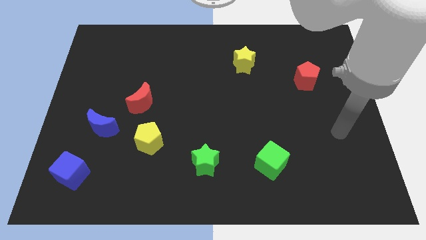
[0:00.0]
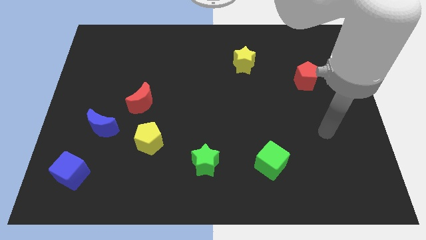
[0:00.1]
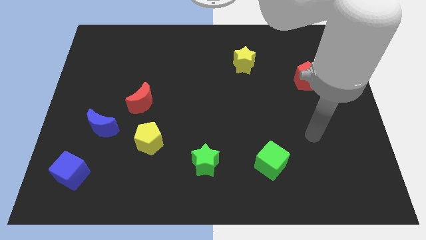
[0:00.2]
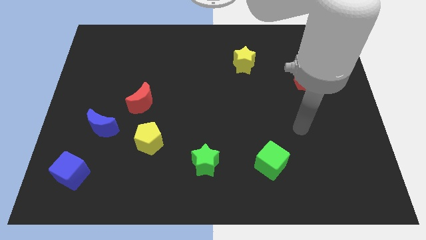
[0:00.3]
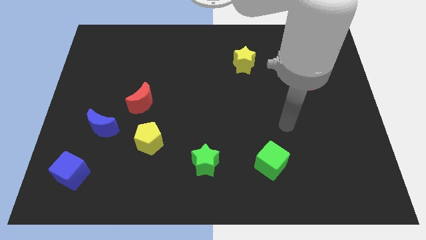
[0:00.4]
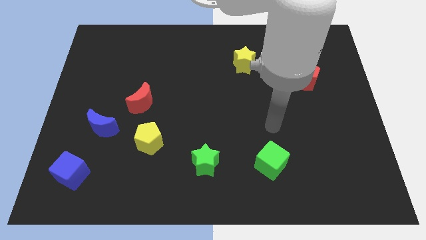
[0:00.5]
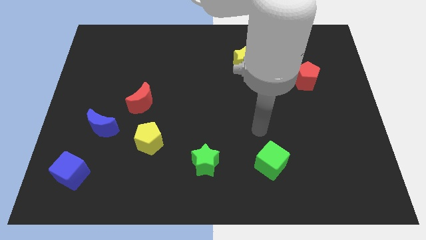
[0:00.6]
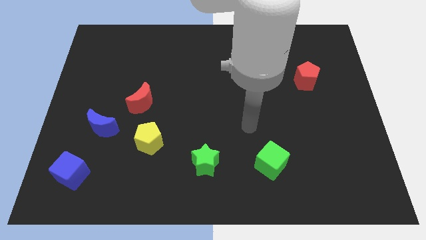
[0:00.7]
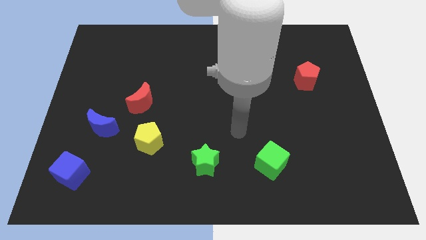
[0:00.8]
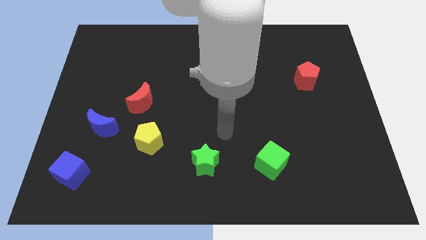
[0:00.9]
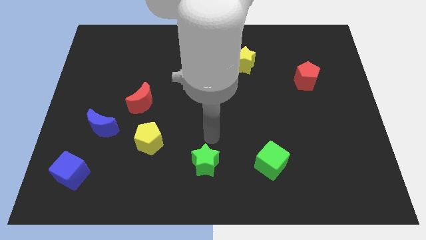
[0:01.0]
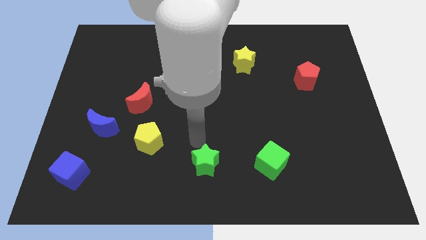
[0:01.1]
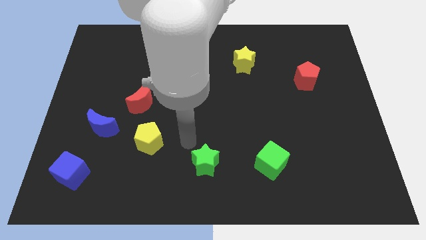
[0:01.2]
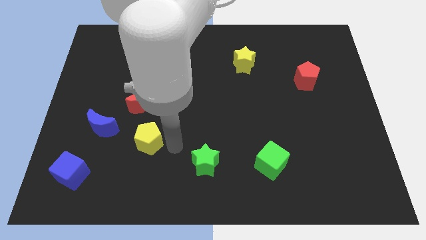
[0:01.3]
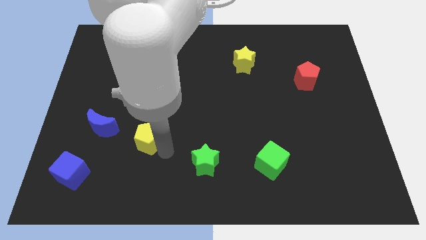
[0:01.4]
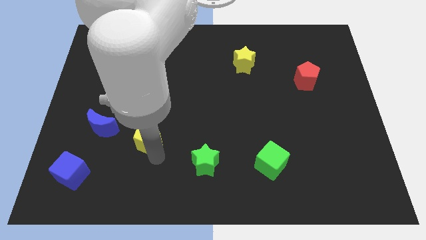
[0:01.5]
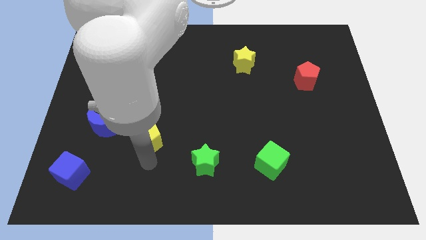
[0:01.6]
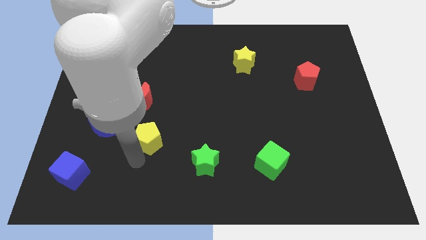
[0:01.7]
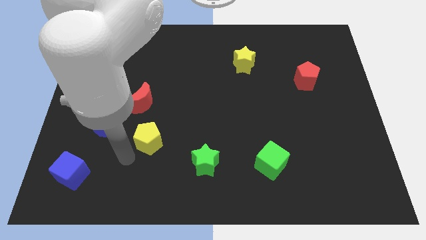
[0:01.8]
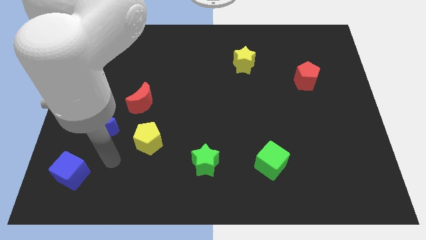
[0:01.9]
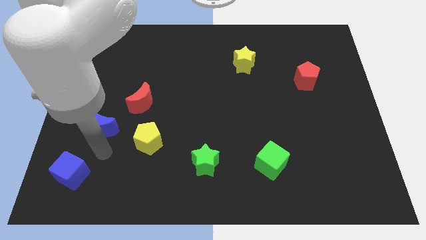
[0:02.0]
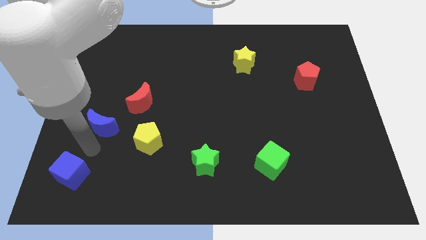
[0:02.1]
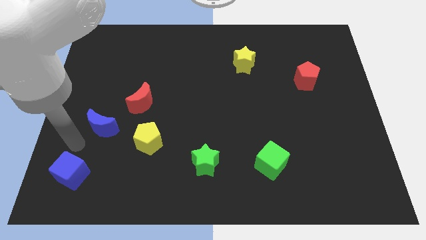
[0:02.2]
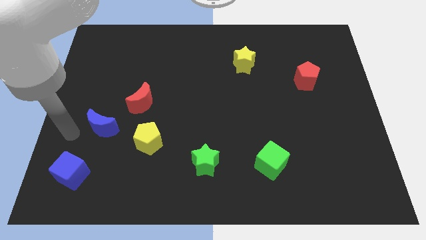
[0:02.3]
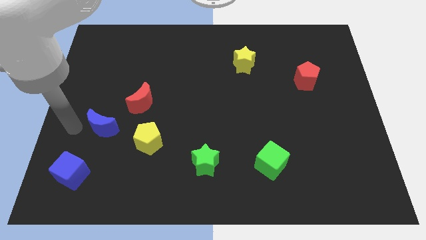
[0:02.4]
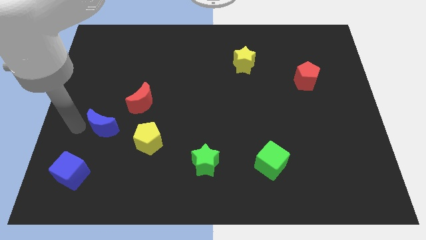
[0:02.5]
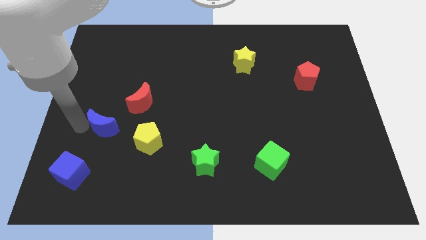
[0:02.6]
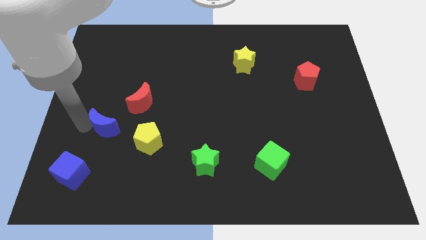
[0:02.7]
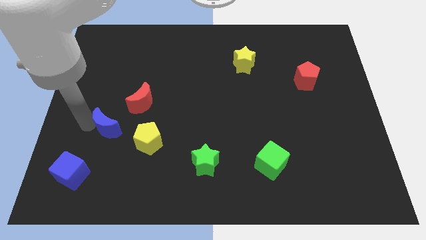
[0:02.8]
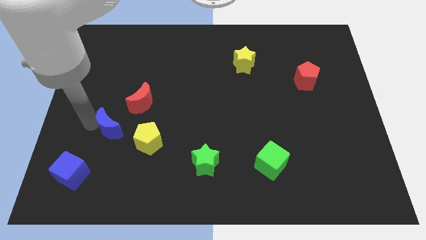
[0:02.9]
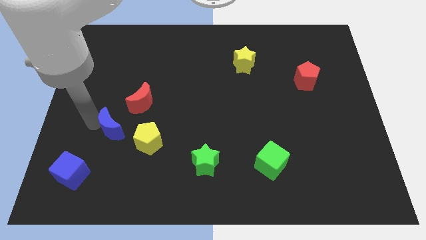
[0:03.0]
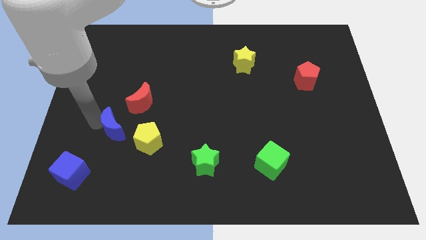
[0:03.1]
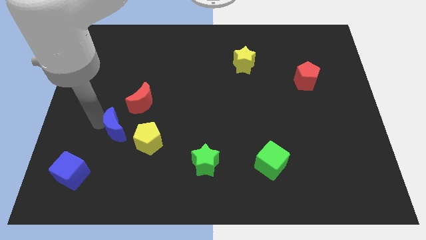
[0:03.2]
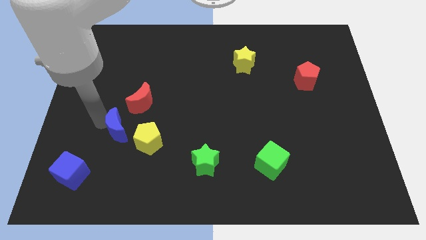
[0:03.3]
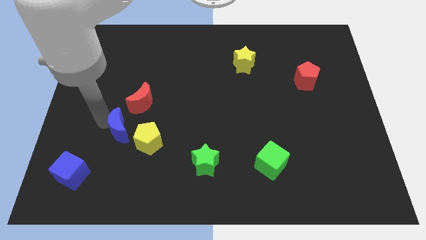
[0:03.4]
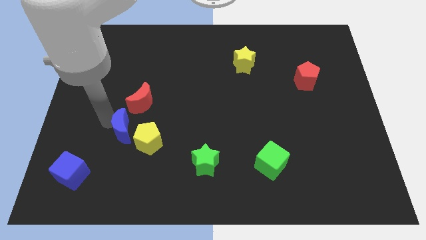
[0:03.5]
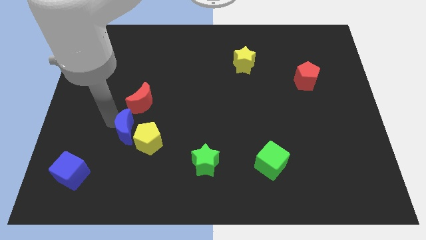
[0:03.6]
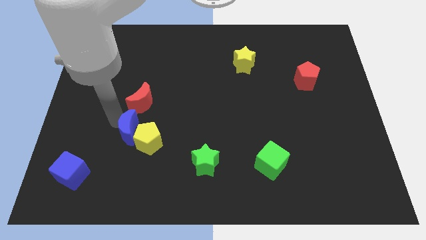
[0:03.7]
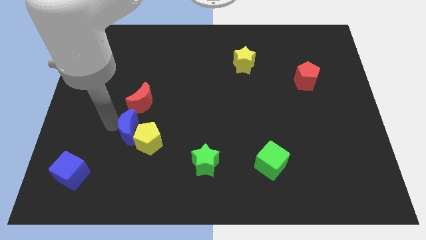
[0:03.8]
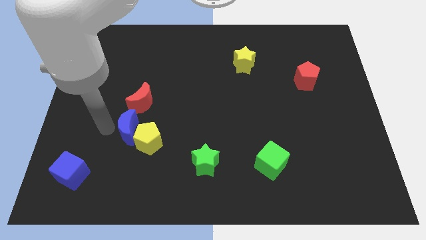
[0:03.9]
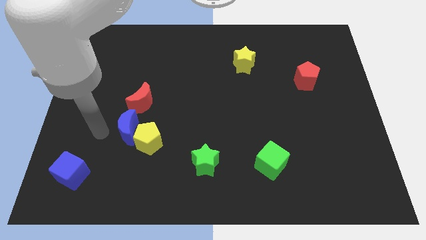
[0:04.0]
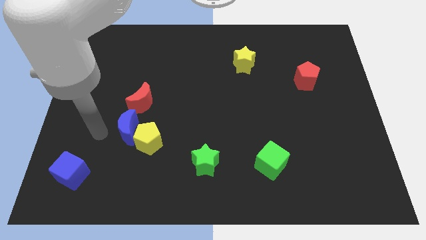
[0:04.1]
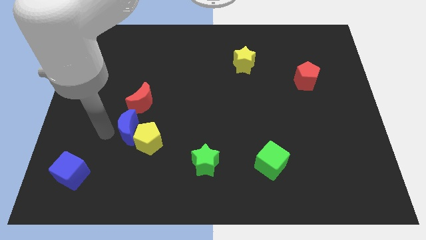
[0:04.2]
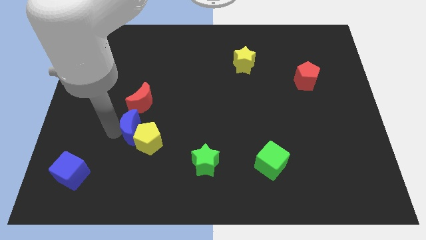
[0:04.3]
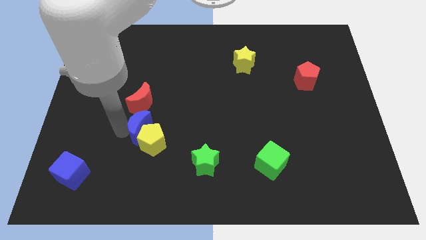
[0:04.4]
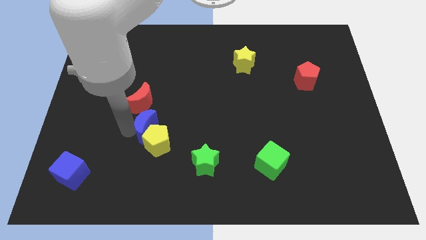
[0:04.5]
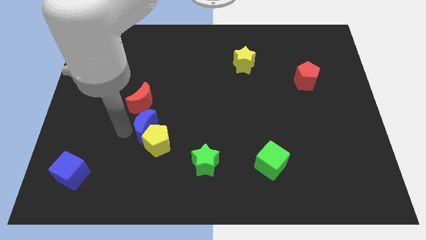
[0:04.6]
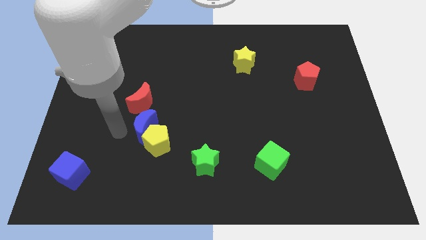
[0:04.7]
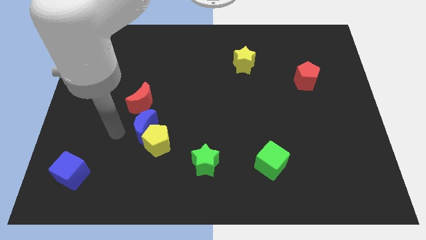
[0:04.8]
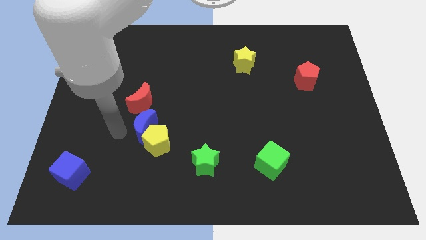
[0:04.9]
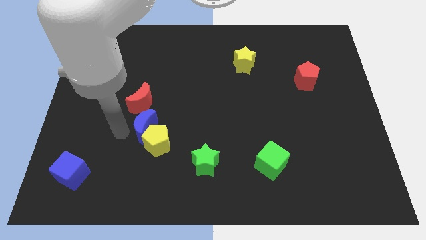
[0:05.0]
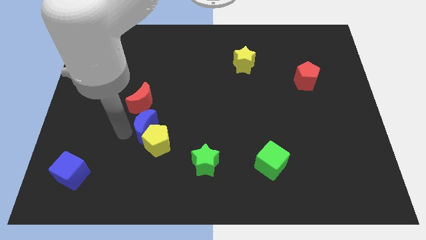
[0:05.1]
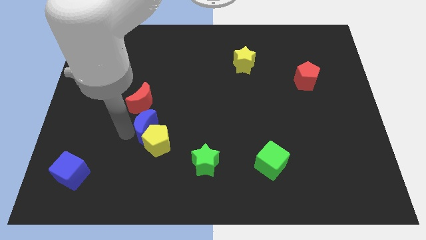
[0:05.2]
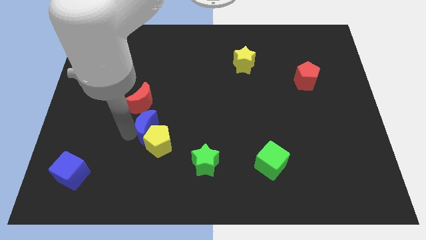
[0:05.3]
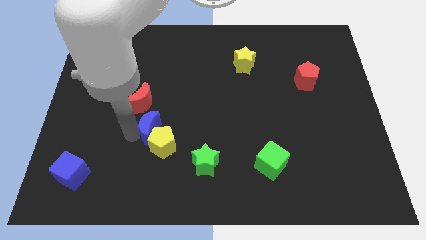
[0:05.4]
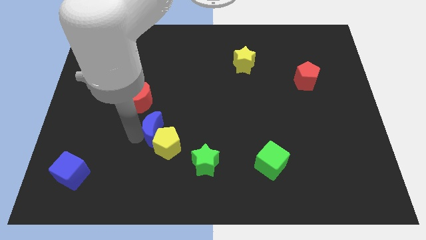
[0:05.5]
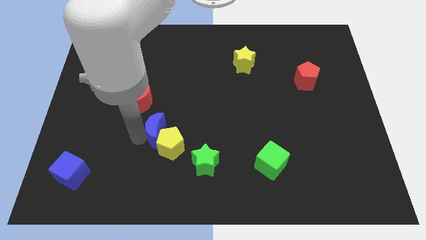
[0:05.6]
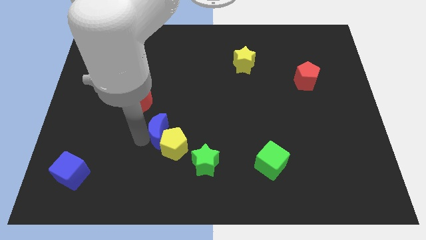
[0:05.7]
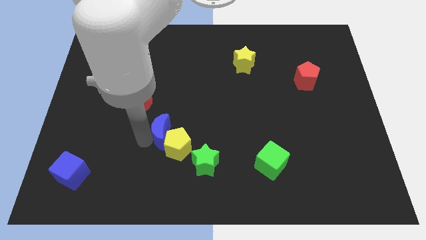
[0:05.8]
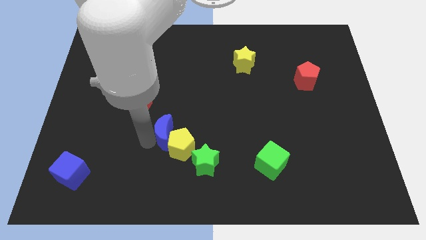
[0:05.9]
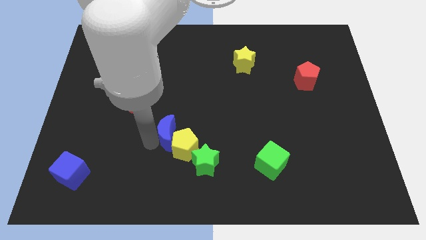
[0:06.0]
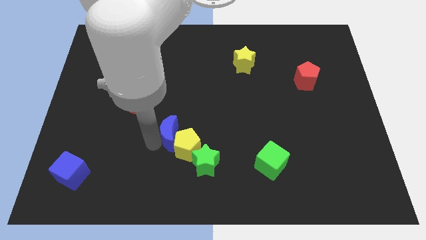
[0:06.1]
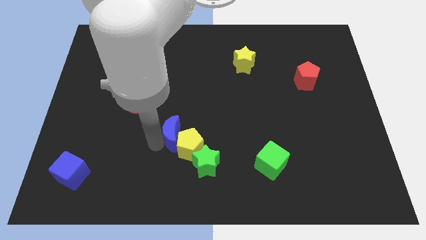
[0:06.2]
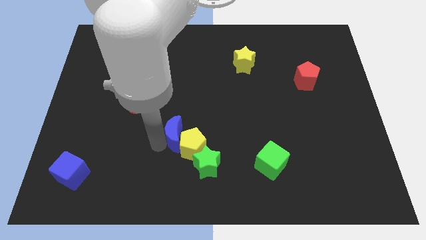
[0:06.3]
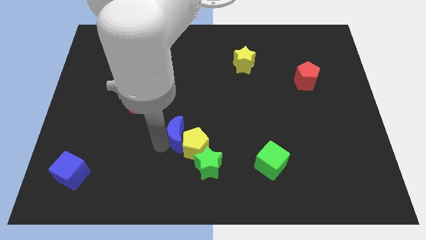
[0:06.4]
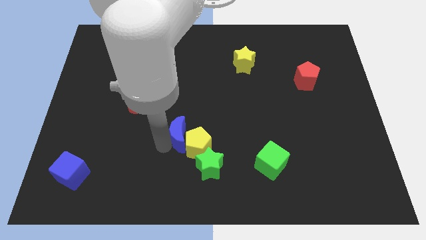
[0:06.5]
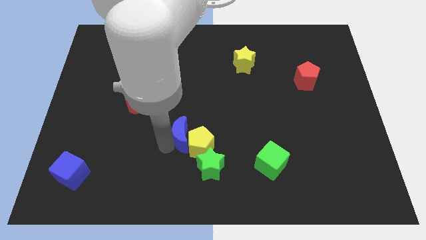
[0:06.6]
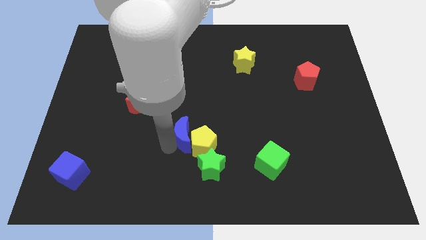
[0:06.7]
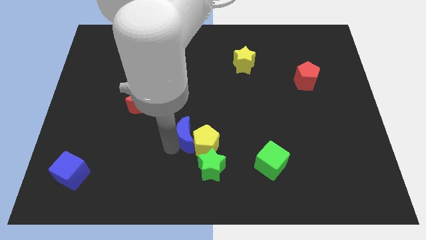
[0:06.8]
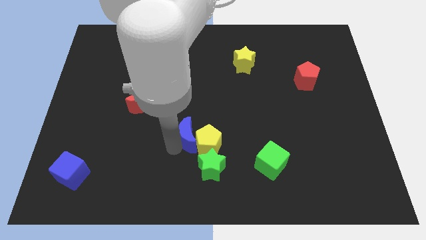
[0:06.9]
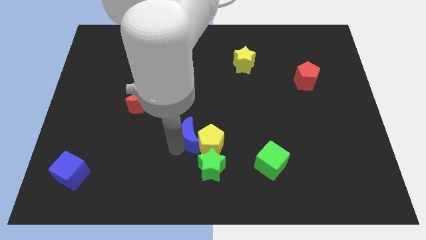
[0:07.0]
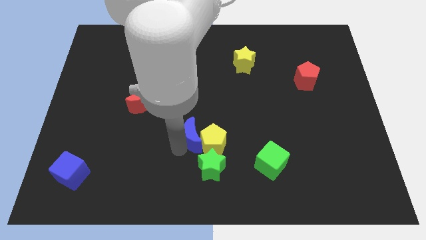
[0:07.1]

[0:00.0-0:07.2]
push the blue moon right

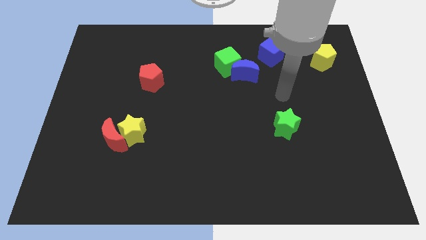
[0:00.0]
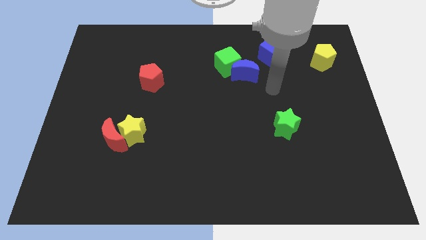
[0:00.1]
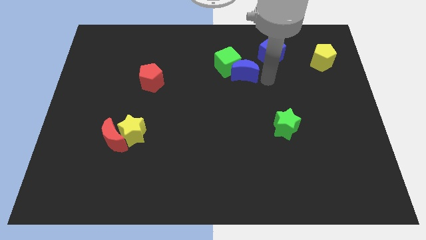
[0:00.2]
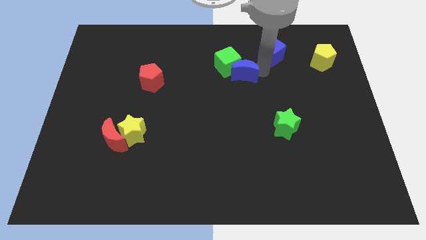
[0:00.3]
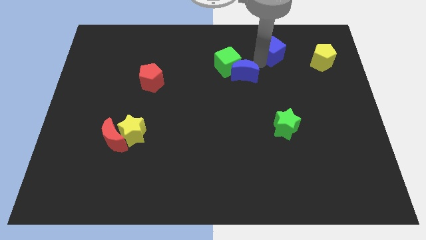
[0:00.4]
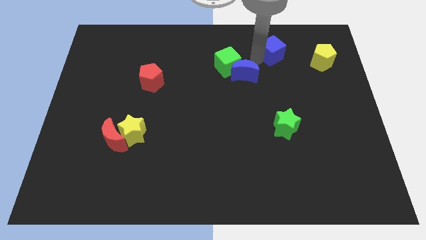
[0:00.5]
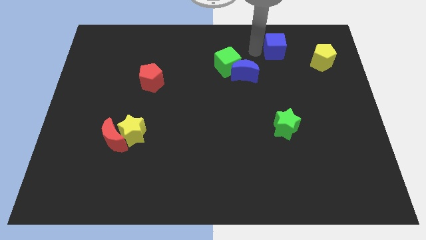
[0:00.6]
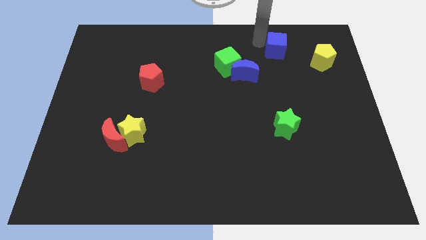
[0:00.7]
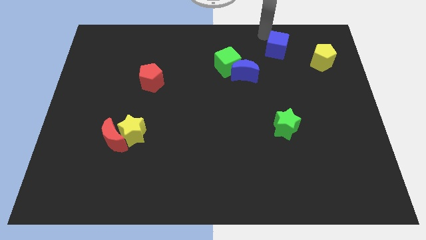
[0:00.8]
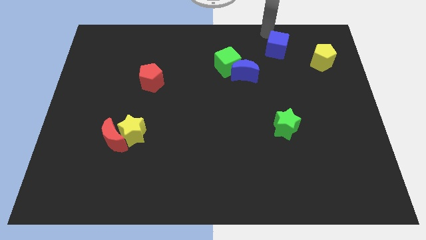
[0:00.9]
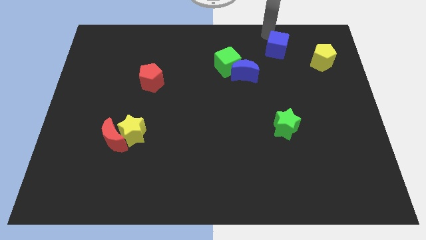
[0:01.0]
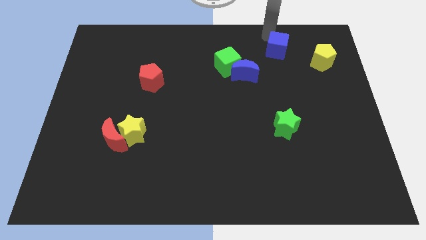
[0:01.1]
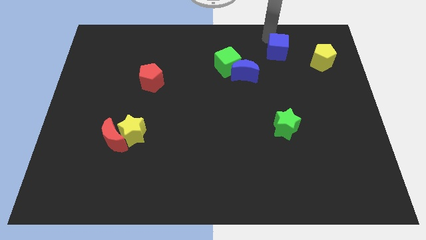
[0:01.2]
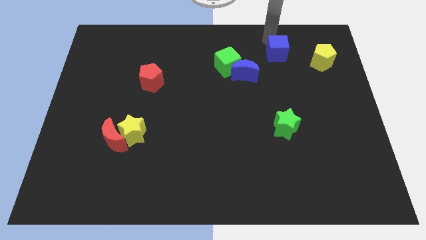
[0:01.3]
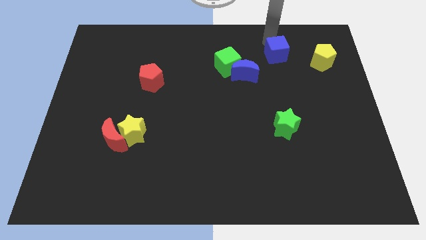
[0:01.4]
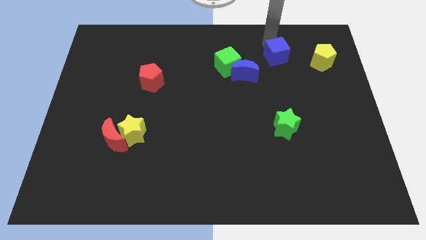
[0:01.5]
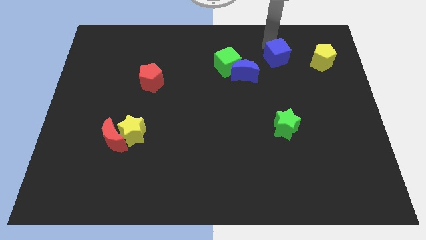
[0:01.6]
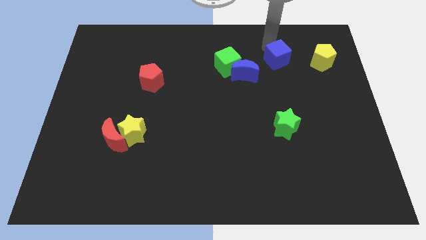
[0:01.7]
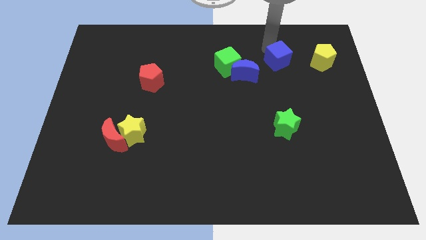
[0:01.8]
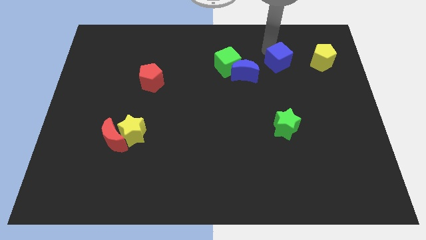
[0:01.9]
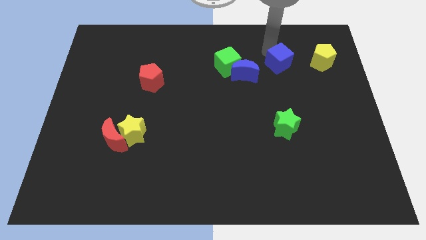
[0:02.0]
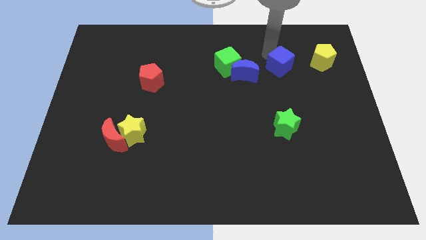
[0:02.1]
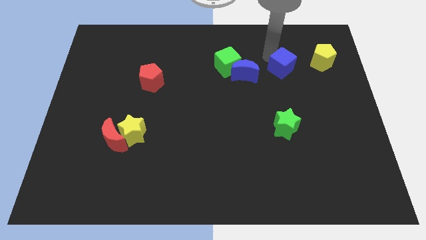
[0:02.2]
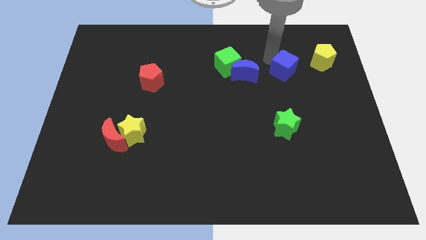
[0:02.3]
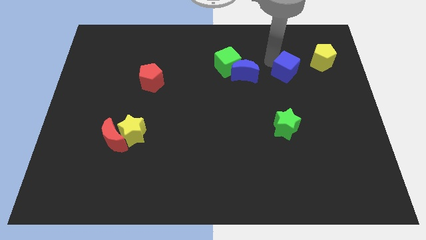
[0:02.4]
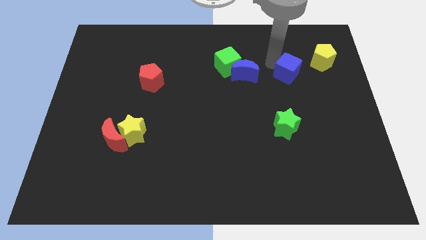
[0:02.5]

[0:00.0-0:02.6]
move the blue cube a little downwards and then right
